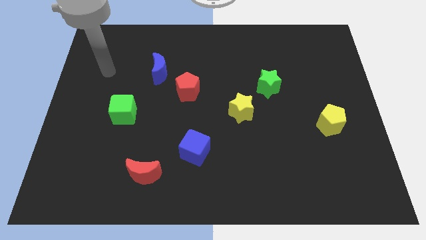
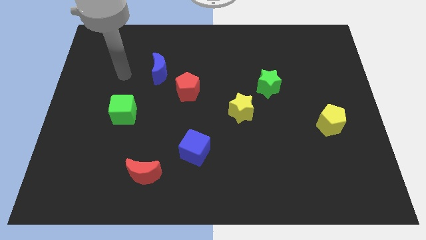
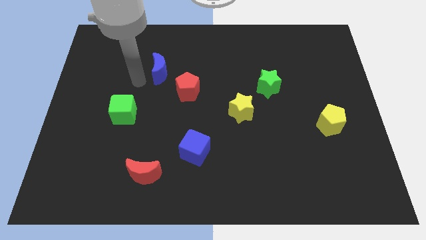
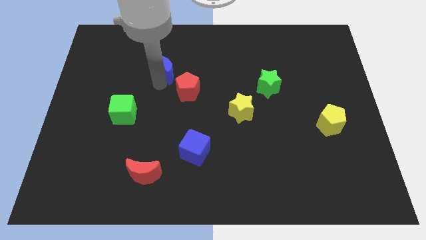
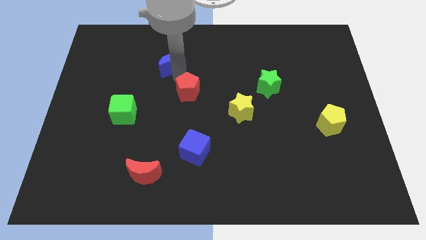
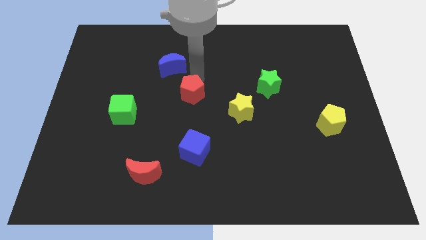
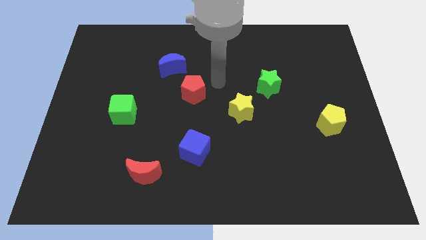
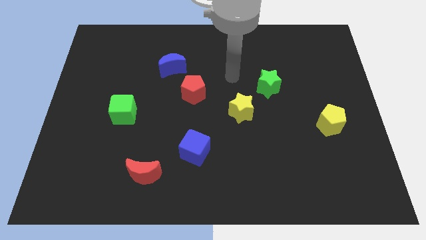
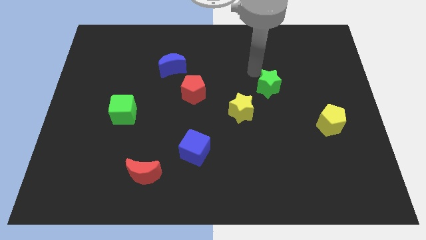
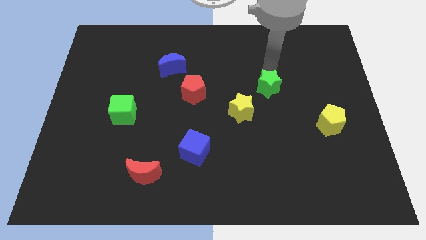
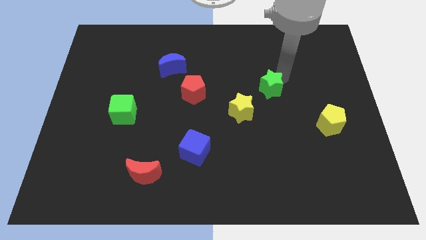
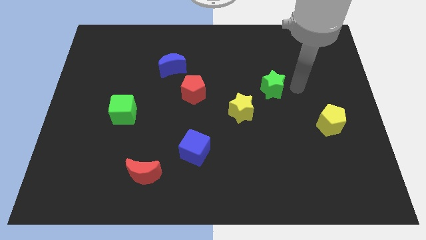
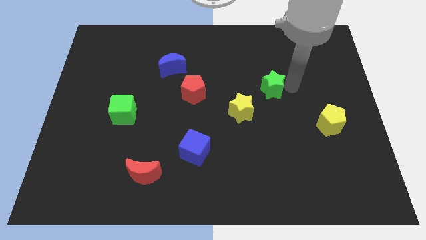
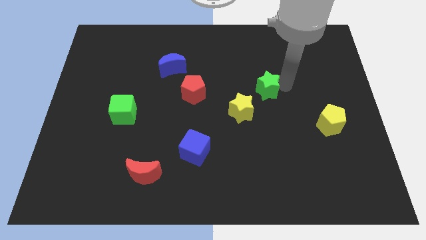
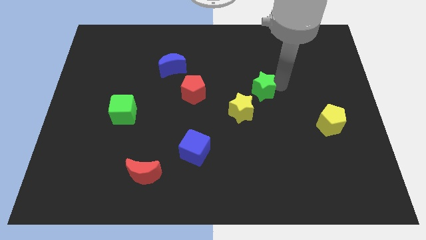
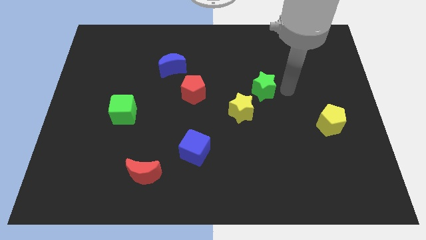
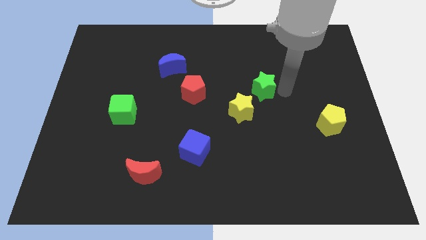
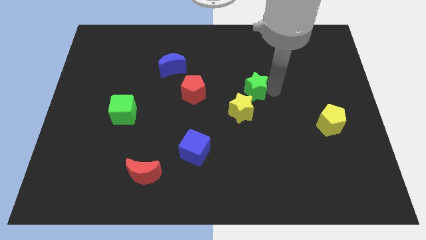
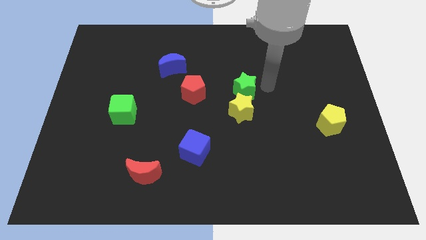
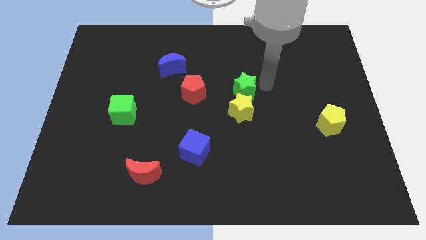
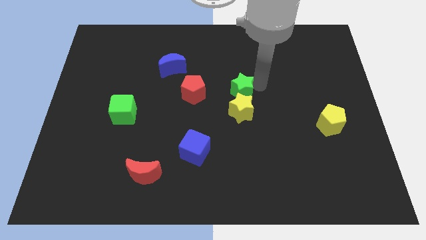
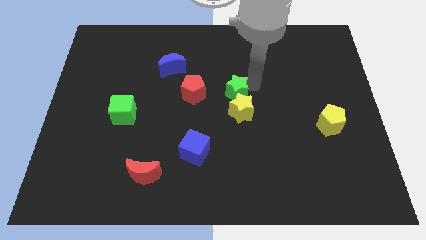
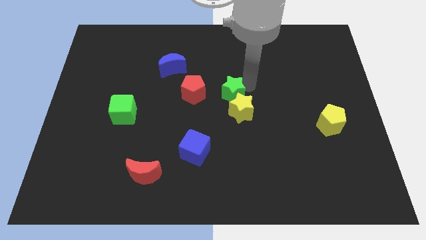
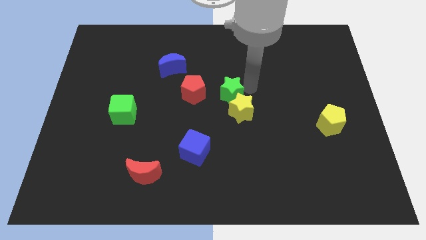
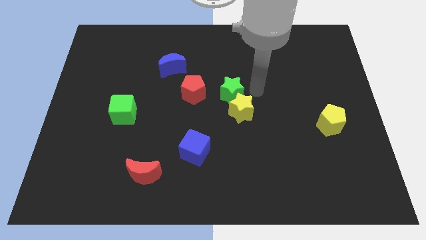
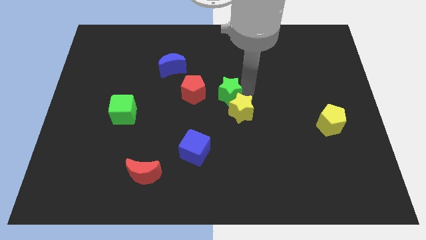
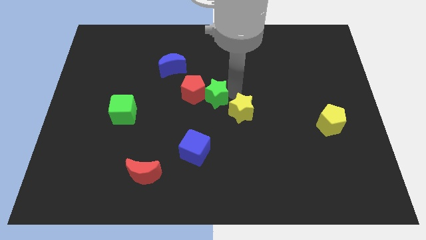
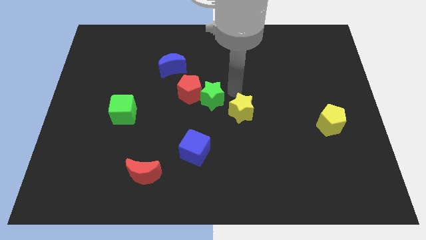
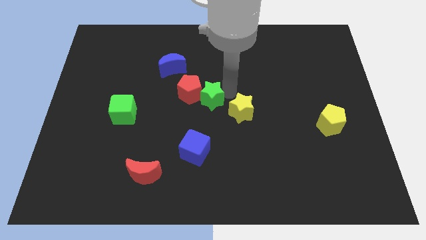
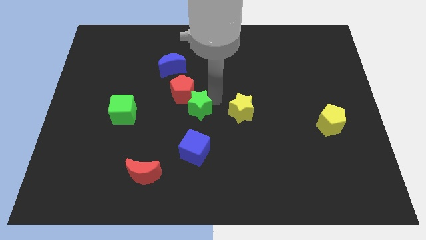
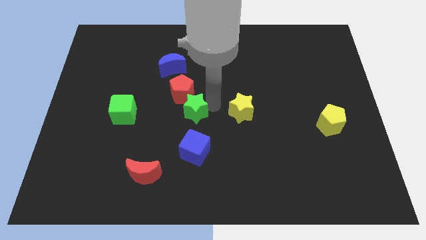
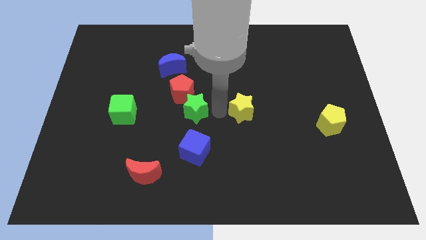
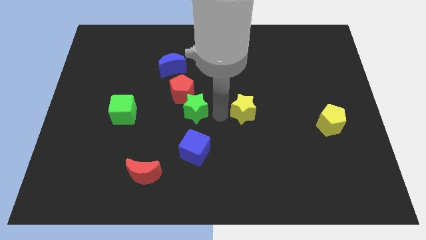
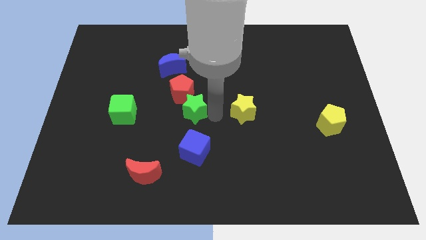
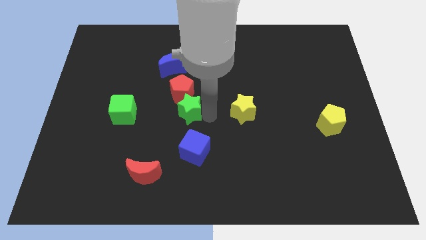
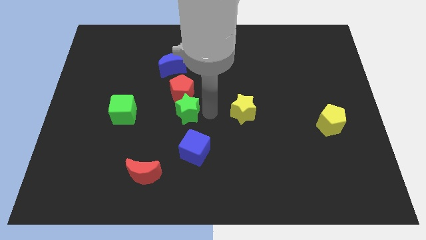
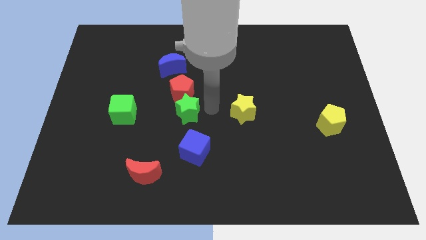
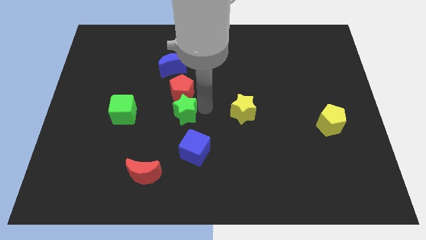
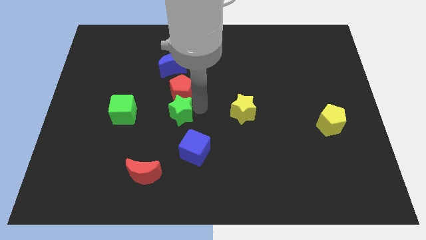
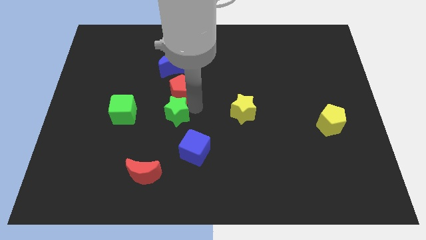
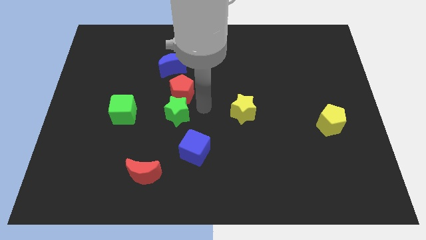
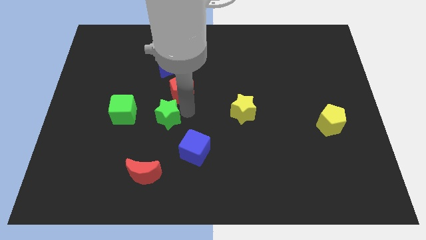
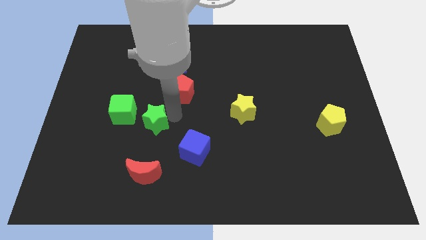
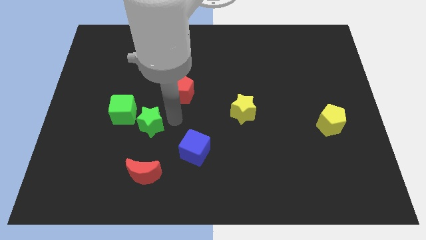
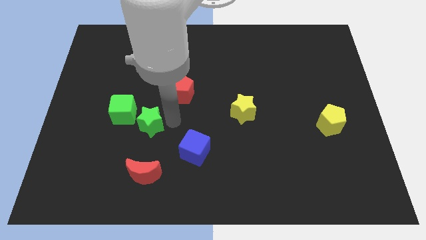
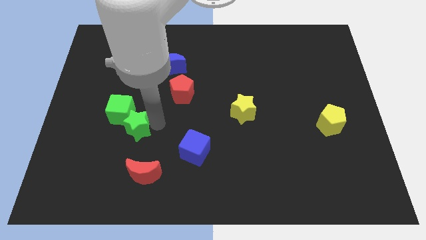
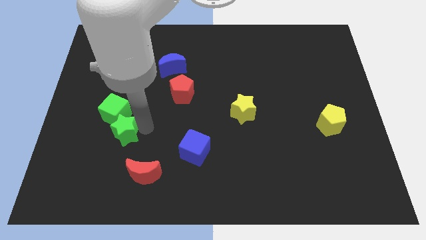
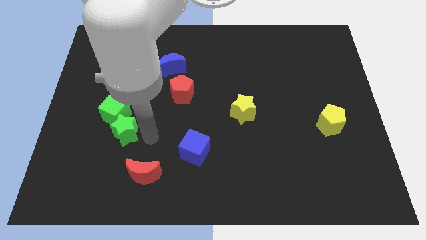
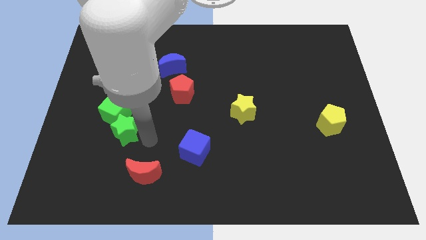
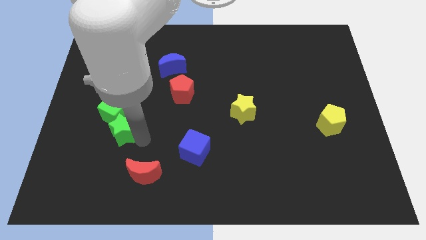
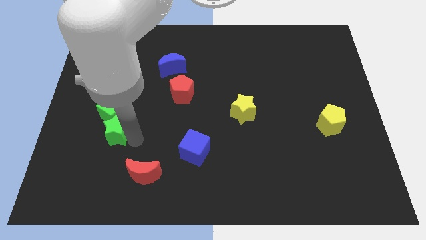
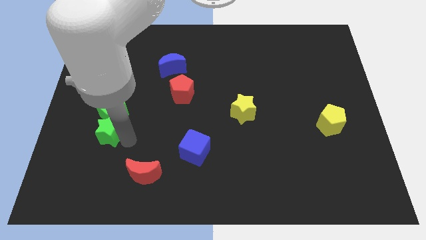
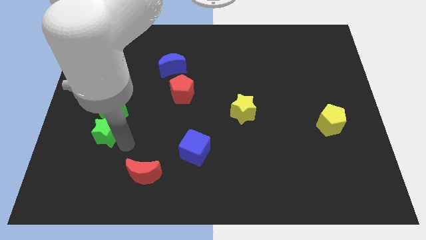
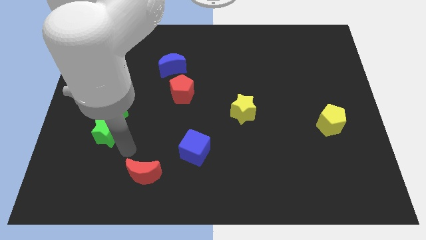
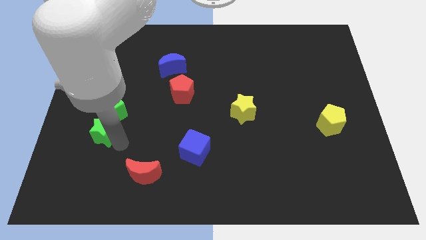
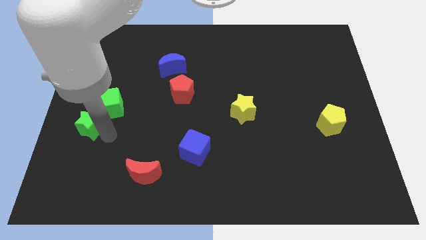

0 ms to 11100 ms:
move the green star to the left side
